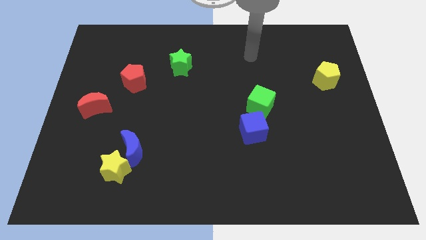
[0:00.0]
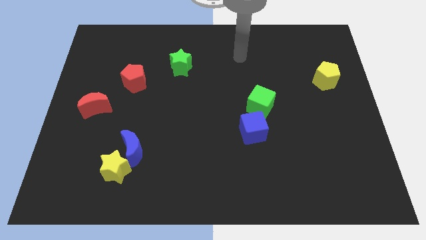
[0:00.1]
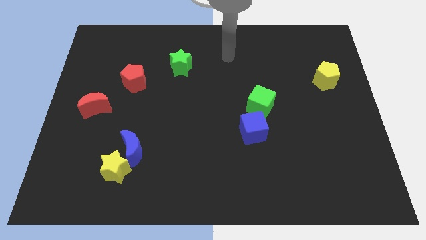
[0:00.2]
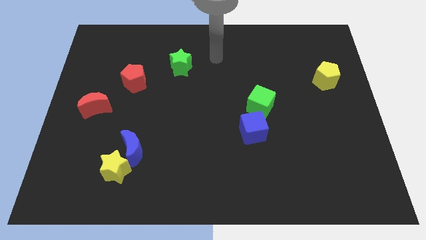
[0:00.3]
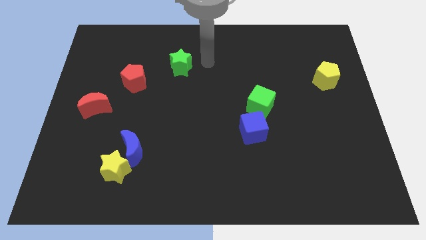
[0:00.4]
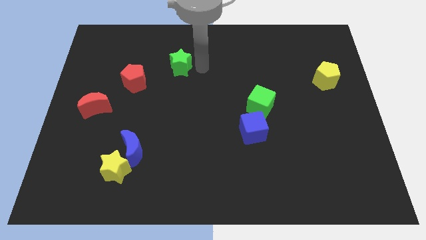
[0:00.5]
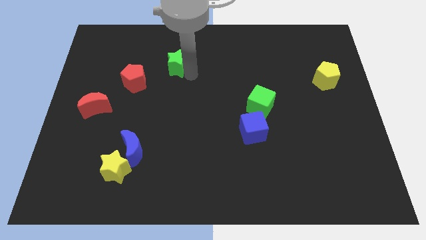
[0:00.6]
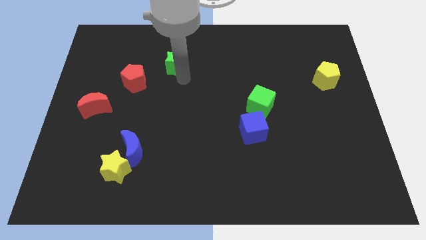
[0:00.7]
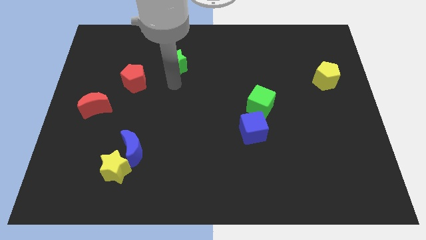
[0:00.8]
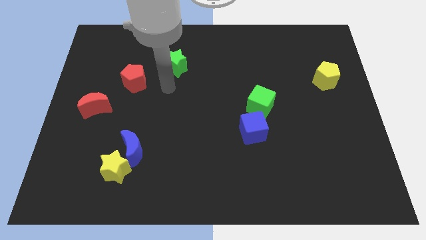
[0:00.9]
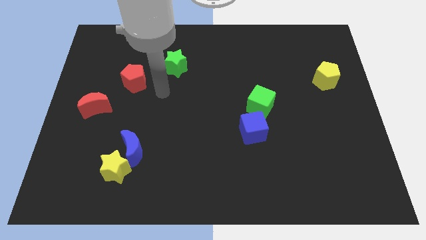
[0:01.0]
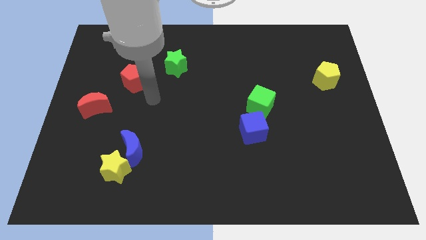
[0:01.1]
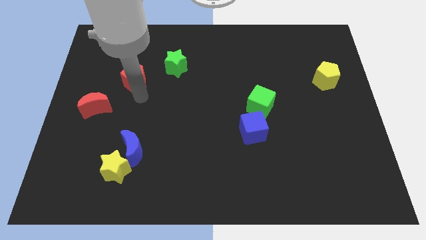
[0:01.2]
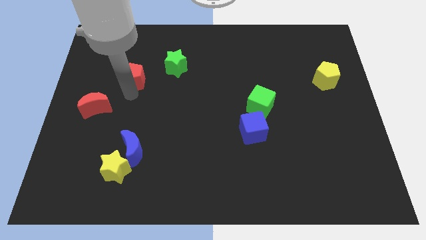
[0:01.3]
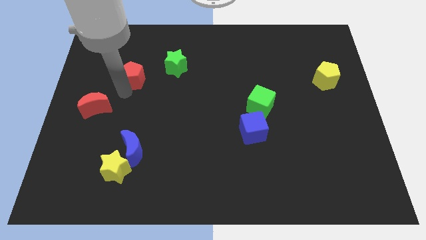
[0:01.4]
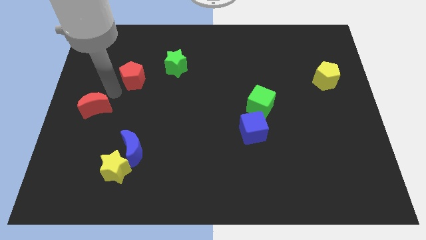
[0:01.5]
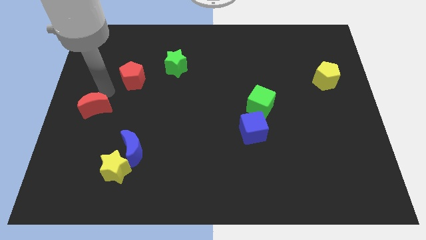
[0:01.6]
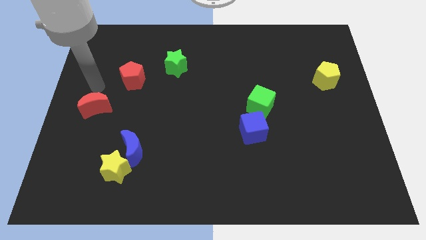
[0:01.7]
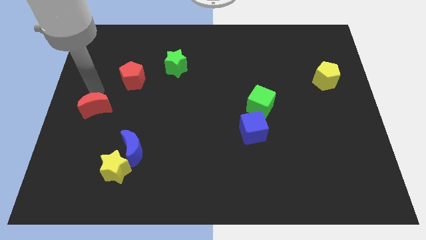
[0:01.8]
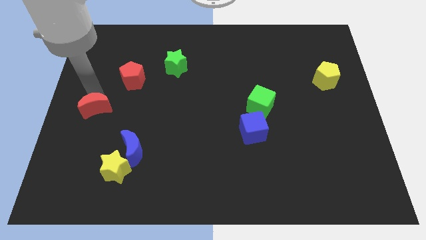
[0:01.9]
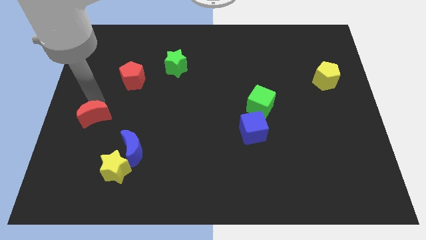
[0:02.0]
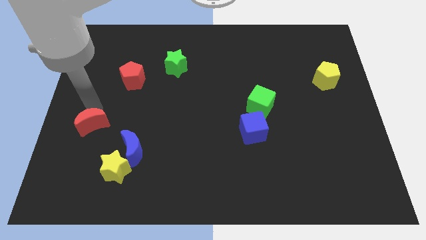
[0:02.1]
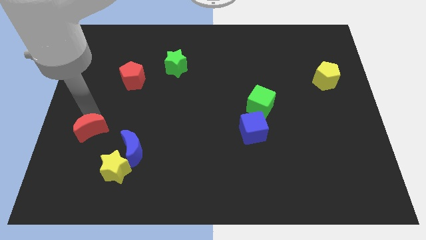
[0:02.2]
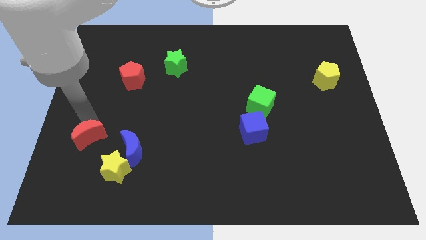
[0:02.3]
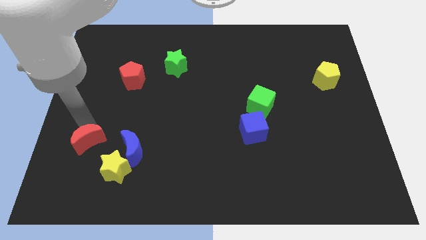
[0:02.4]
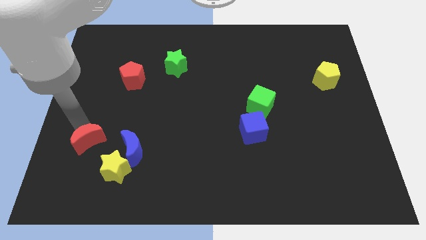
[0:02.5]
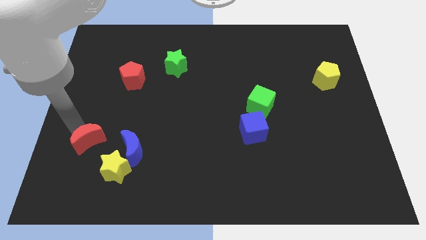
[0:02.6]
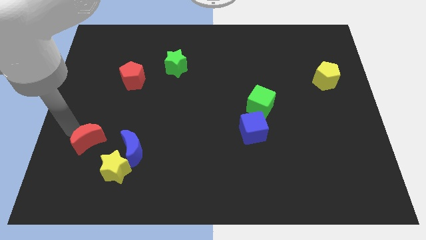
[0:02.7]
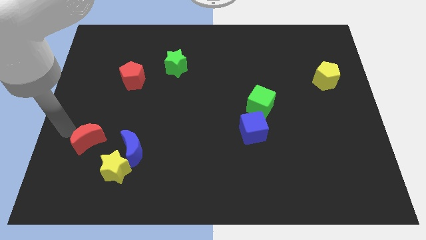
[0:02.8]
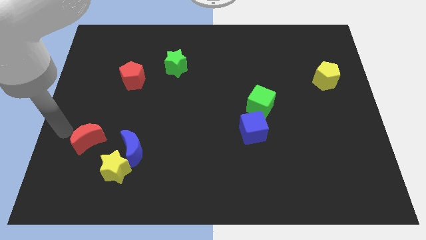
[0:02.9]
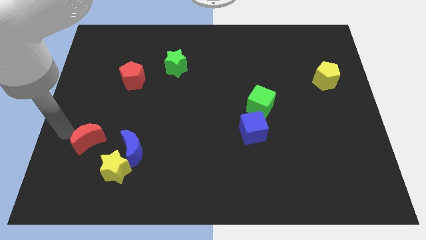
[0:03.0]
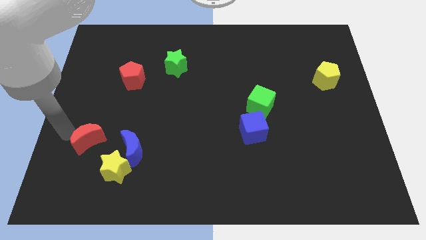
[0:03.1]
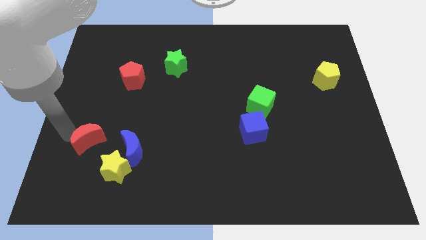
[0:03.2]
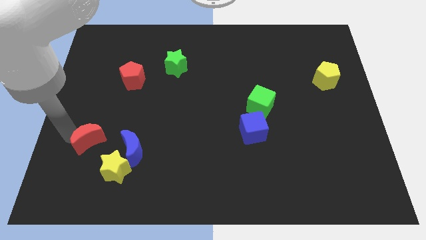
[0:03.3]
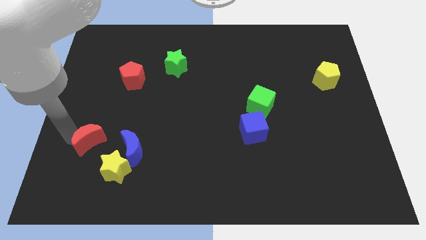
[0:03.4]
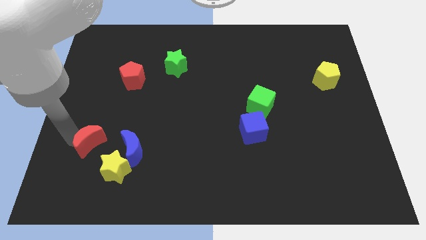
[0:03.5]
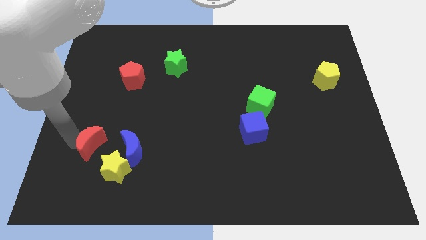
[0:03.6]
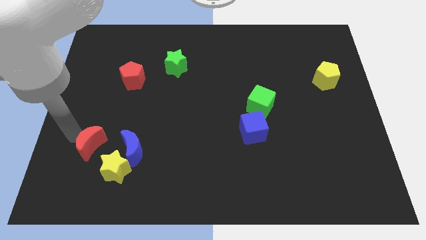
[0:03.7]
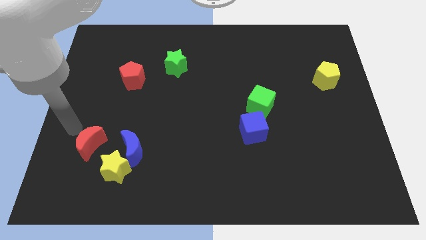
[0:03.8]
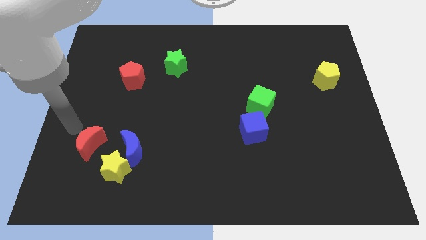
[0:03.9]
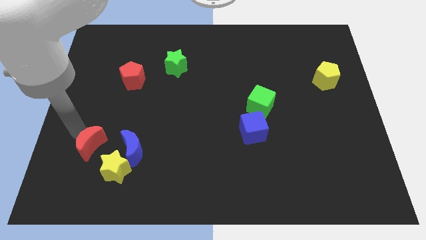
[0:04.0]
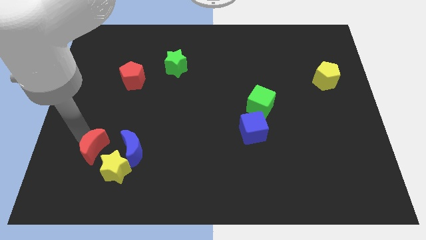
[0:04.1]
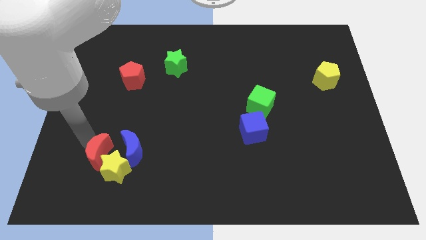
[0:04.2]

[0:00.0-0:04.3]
push the red moon next to the yellow star

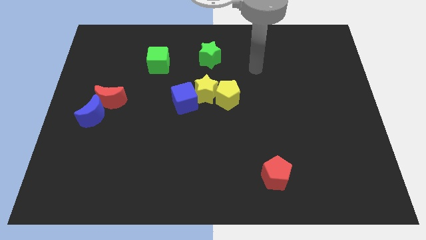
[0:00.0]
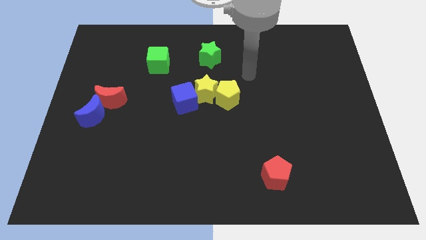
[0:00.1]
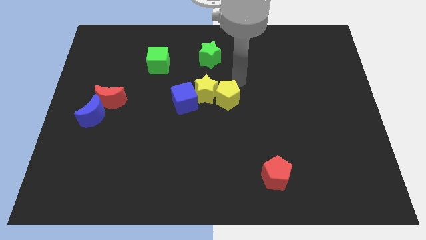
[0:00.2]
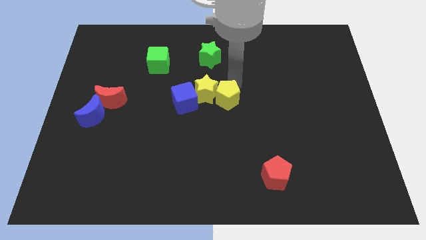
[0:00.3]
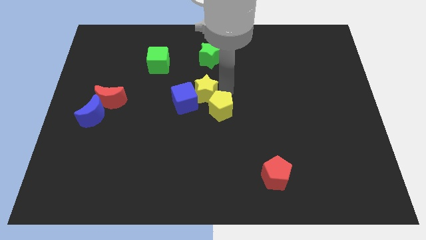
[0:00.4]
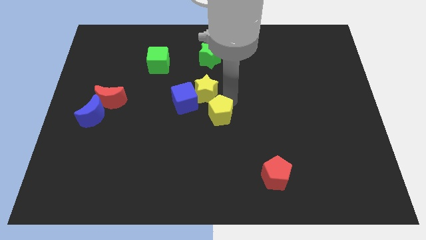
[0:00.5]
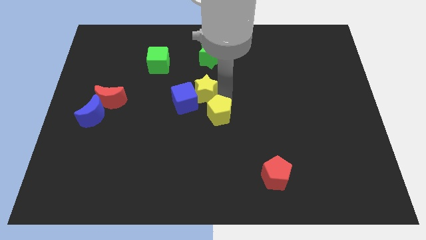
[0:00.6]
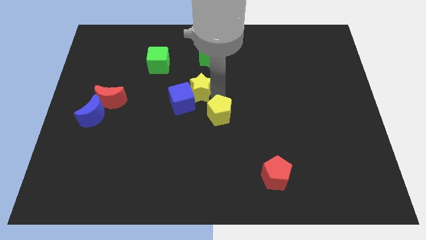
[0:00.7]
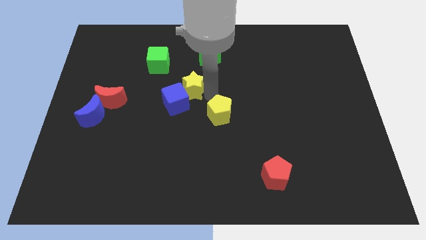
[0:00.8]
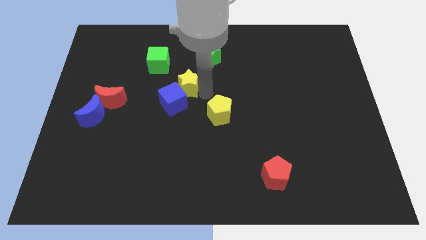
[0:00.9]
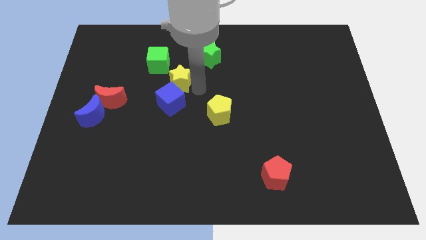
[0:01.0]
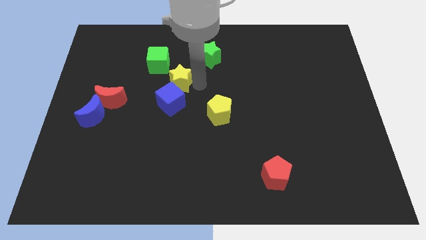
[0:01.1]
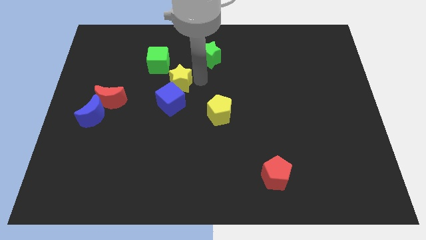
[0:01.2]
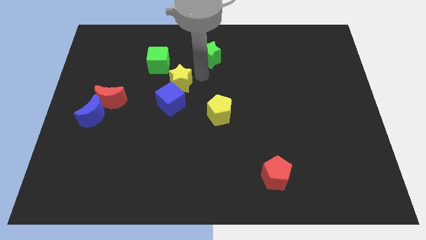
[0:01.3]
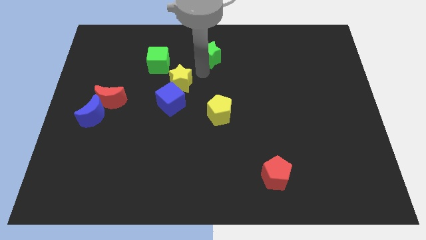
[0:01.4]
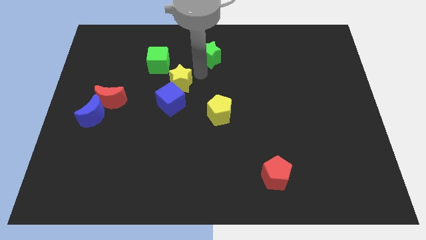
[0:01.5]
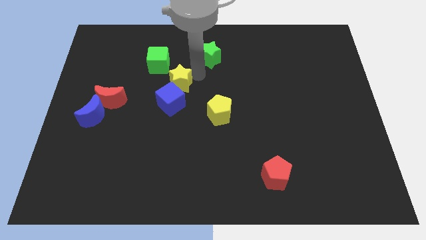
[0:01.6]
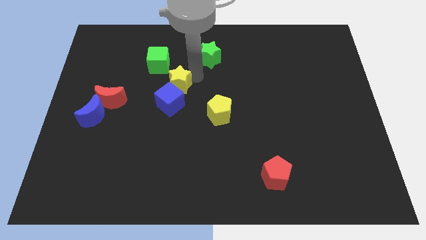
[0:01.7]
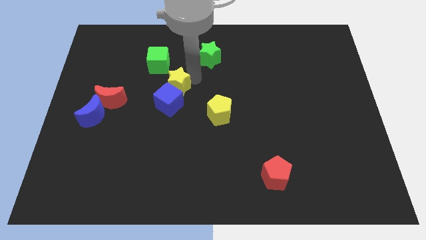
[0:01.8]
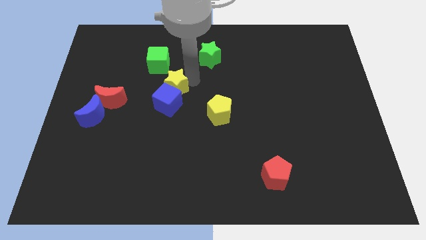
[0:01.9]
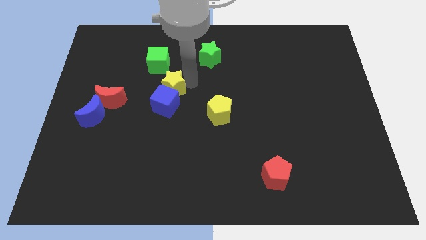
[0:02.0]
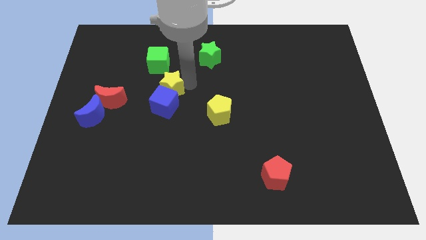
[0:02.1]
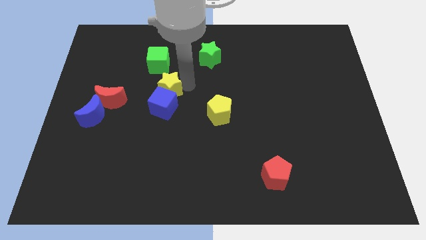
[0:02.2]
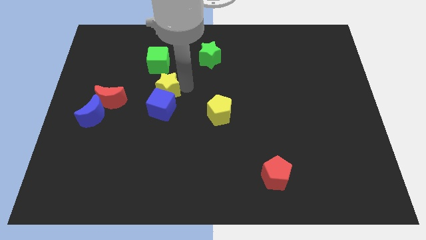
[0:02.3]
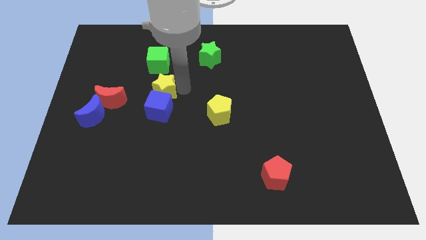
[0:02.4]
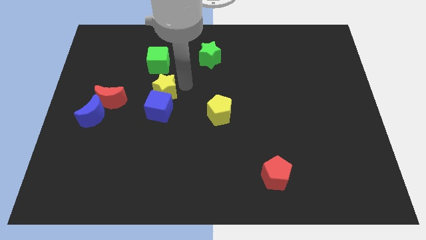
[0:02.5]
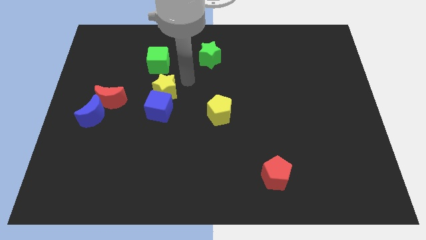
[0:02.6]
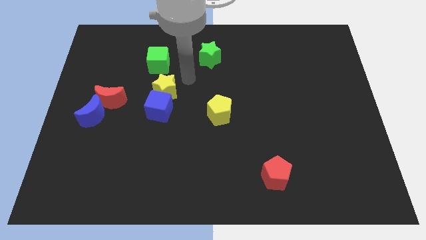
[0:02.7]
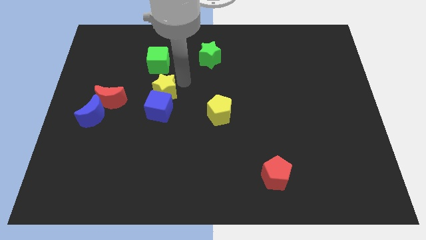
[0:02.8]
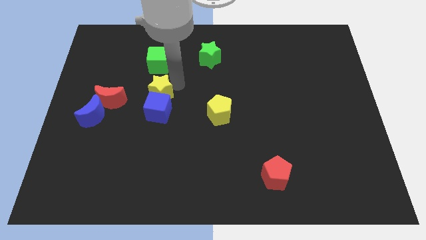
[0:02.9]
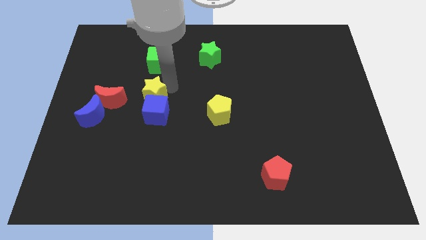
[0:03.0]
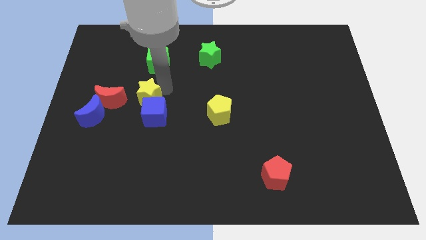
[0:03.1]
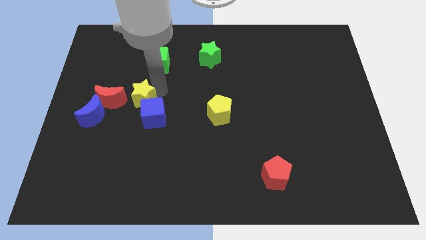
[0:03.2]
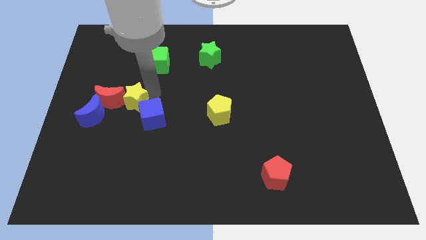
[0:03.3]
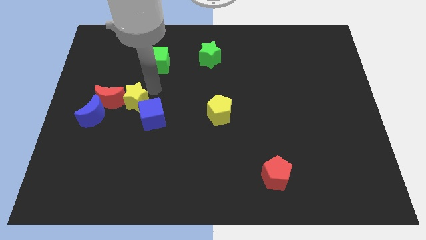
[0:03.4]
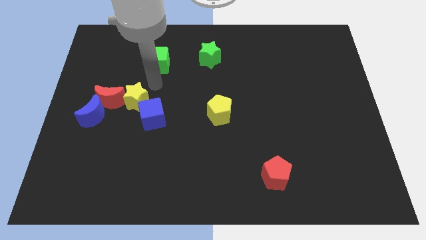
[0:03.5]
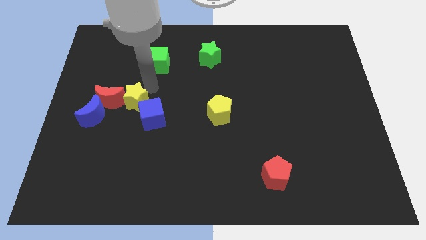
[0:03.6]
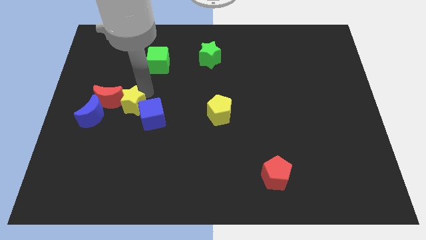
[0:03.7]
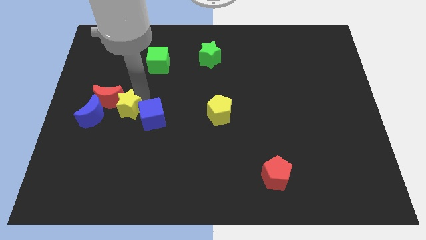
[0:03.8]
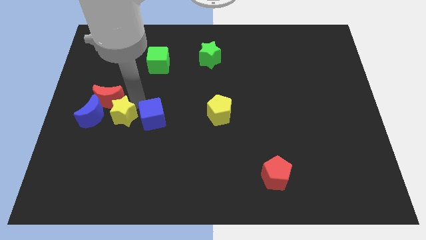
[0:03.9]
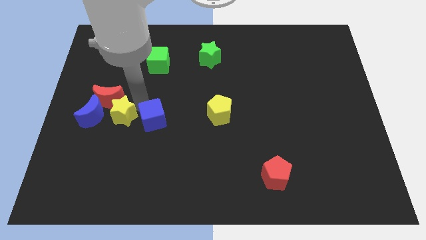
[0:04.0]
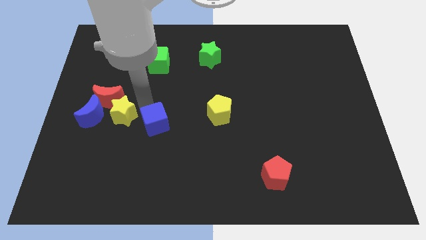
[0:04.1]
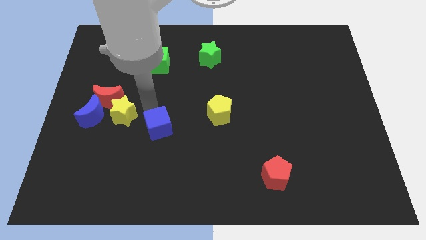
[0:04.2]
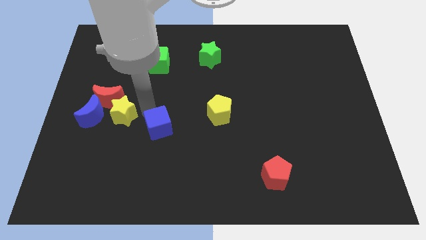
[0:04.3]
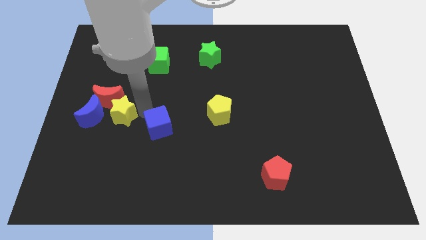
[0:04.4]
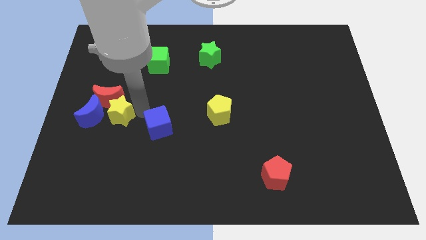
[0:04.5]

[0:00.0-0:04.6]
slide the yellow star to the blue moon
